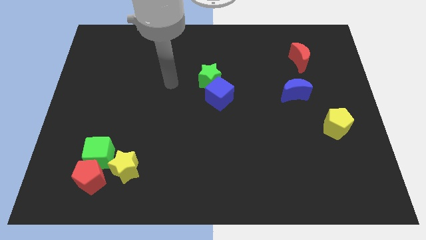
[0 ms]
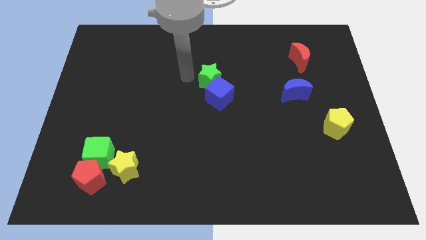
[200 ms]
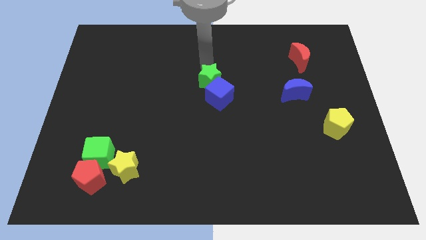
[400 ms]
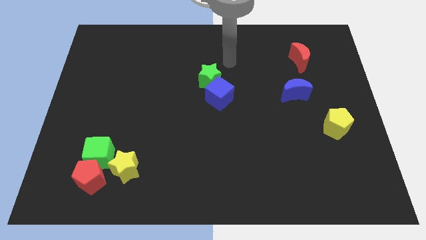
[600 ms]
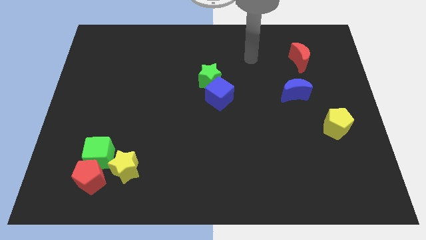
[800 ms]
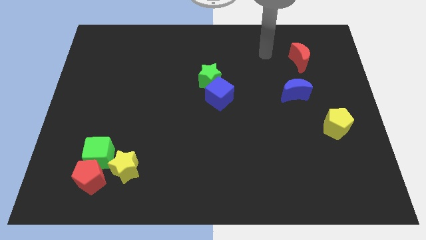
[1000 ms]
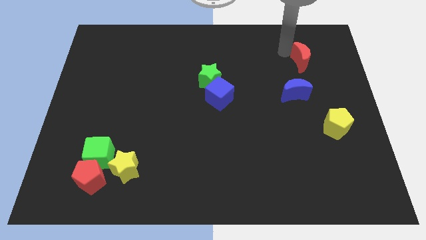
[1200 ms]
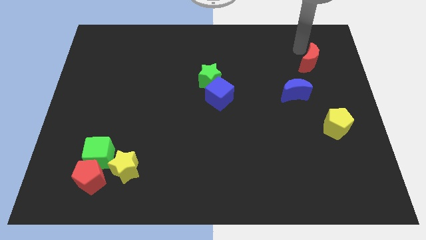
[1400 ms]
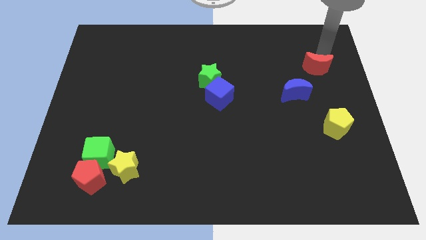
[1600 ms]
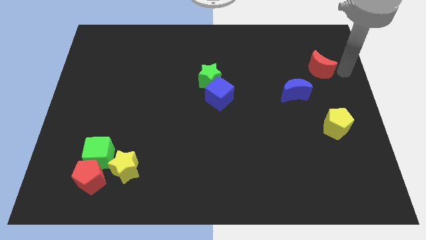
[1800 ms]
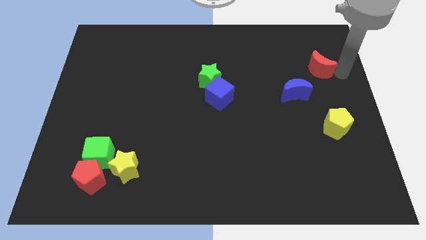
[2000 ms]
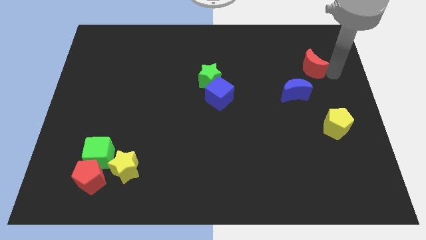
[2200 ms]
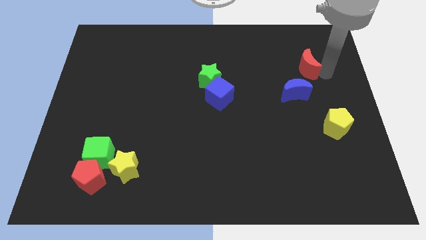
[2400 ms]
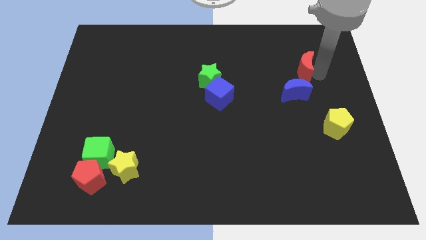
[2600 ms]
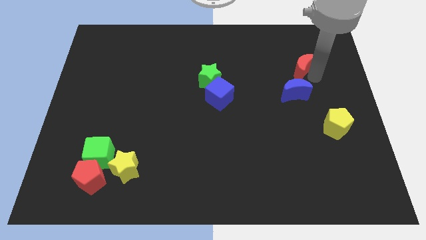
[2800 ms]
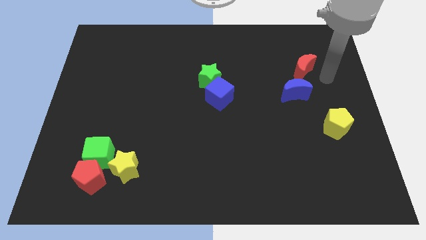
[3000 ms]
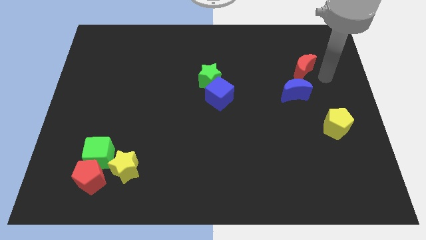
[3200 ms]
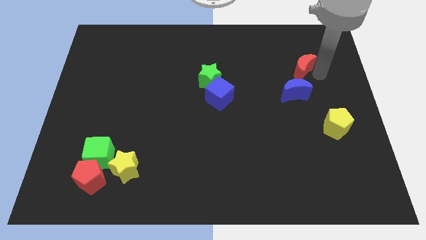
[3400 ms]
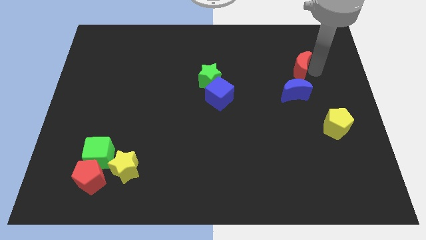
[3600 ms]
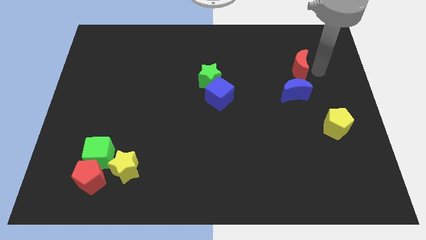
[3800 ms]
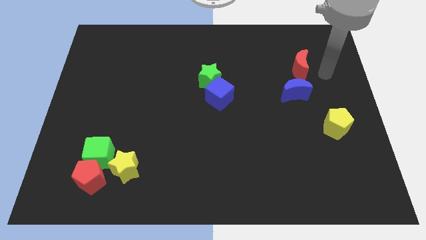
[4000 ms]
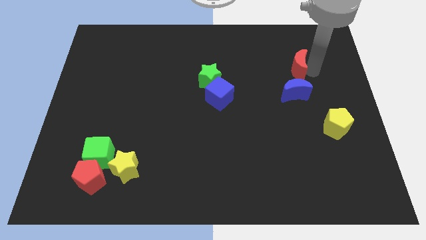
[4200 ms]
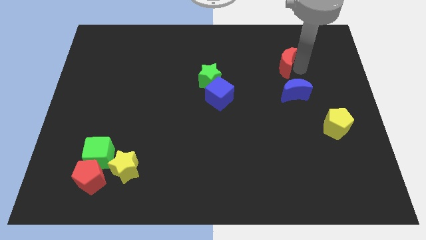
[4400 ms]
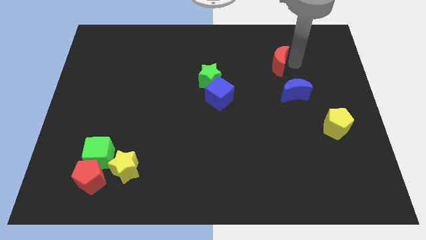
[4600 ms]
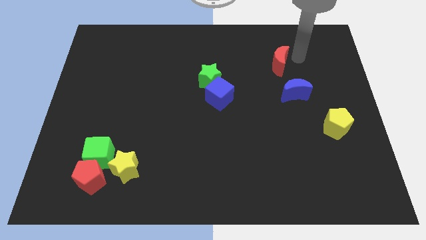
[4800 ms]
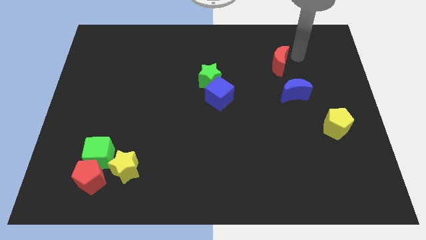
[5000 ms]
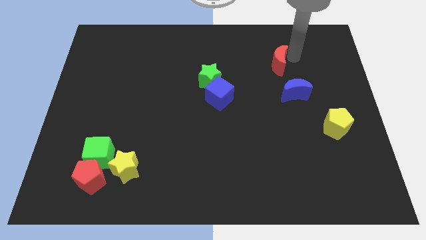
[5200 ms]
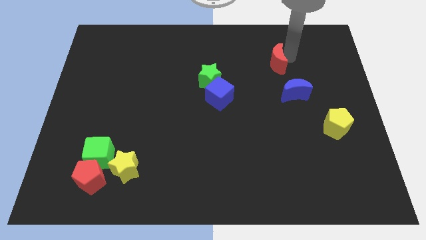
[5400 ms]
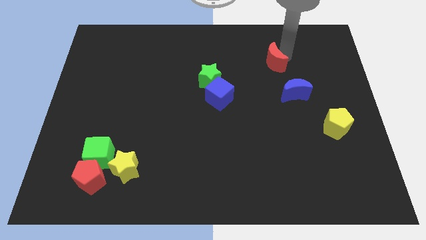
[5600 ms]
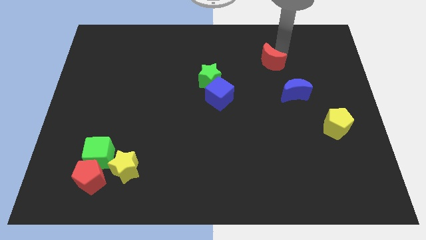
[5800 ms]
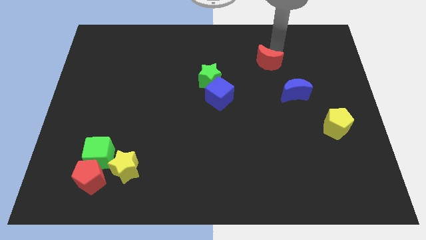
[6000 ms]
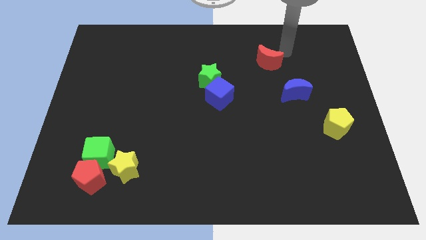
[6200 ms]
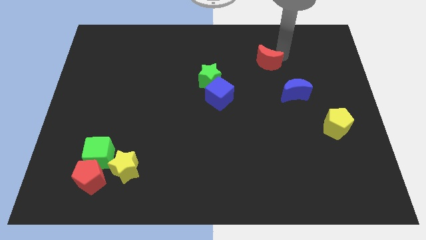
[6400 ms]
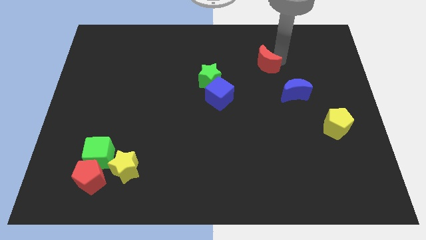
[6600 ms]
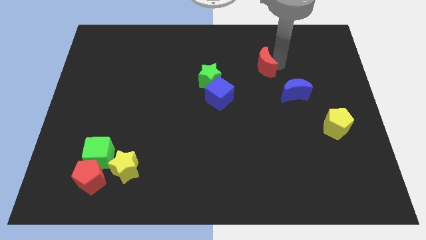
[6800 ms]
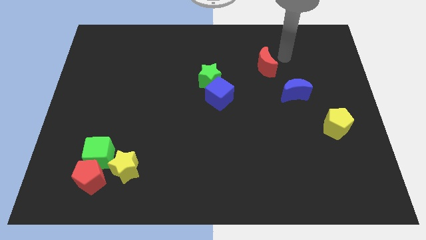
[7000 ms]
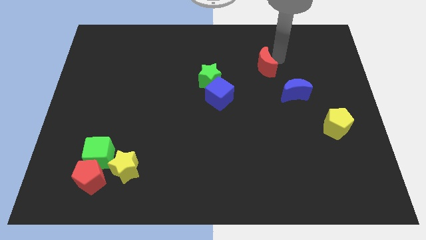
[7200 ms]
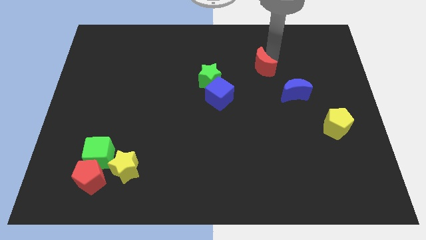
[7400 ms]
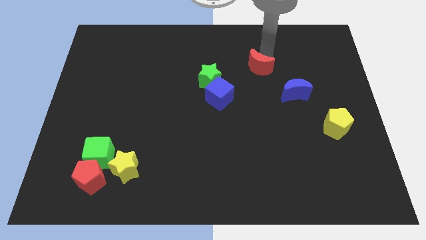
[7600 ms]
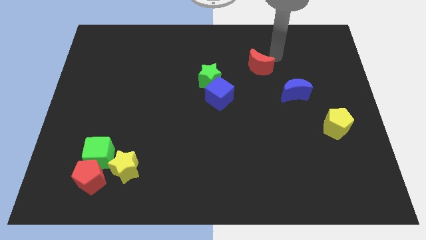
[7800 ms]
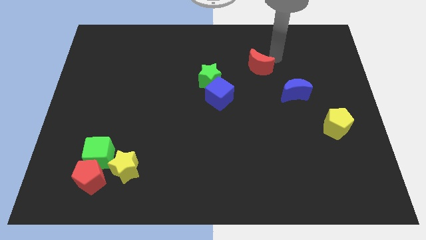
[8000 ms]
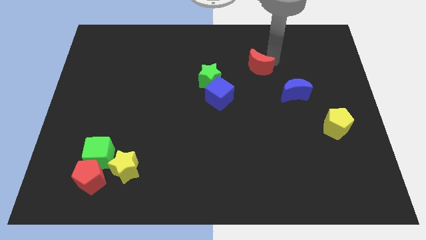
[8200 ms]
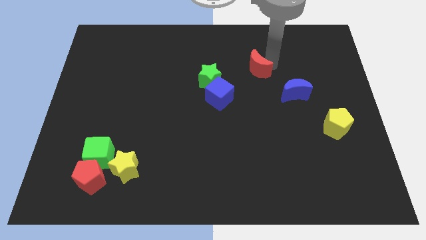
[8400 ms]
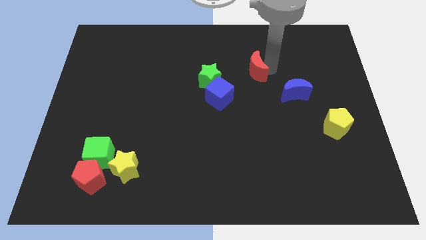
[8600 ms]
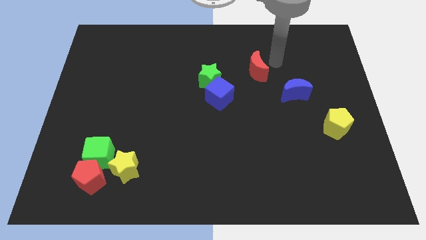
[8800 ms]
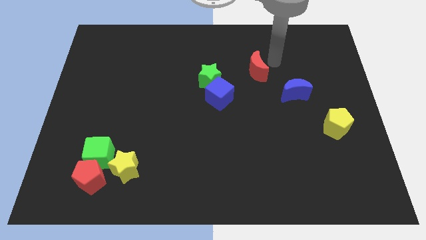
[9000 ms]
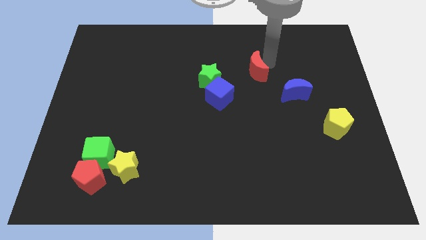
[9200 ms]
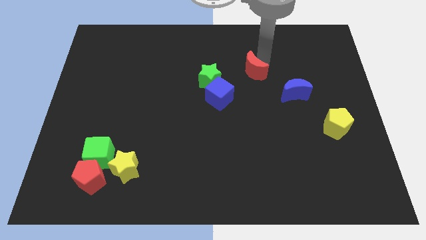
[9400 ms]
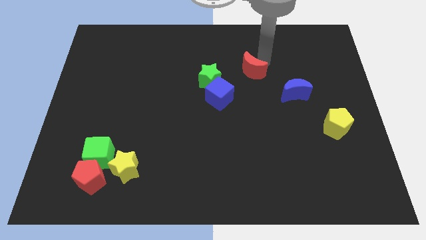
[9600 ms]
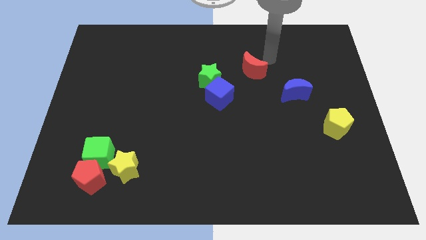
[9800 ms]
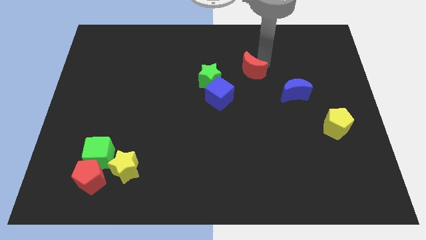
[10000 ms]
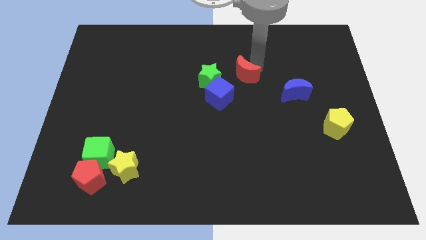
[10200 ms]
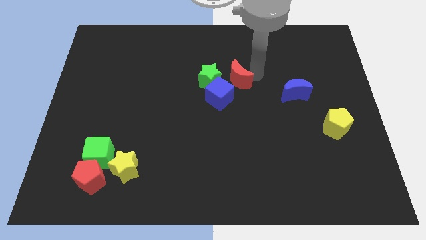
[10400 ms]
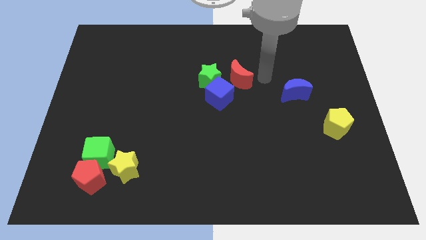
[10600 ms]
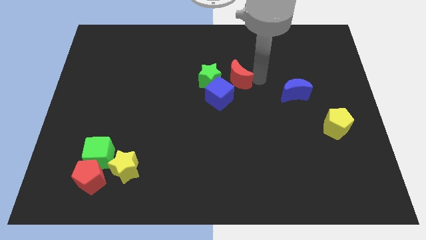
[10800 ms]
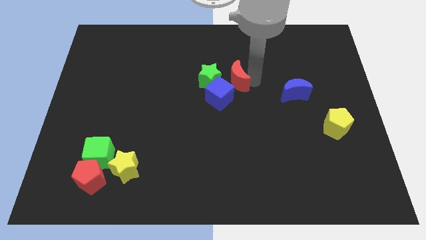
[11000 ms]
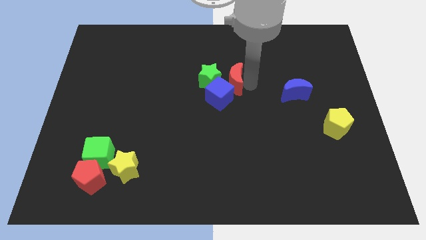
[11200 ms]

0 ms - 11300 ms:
move the red moon close to the green star

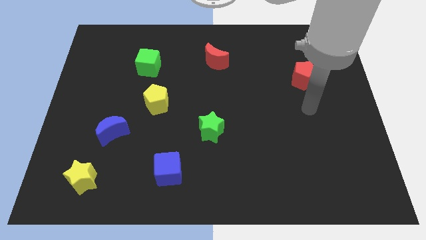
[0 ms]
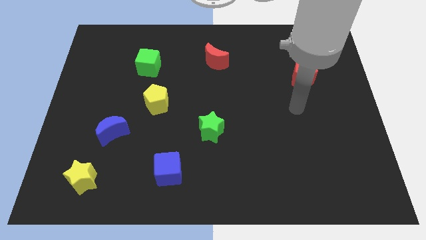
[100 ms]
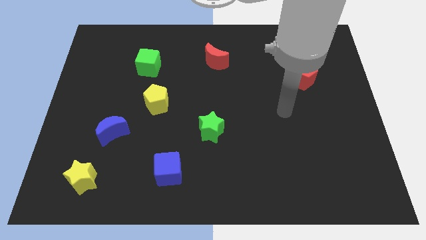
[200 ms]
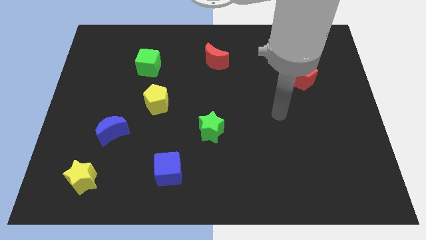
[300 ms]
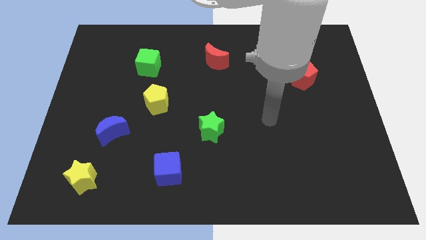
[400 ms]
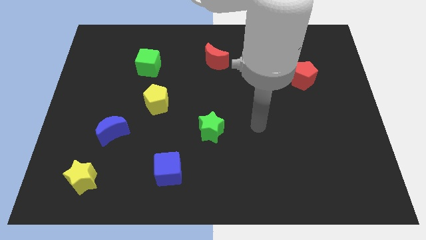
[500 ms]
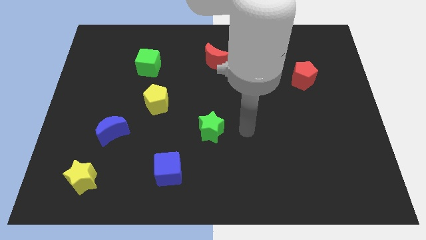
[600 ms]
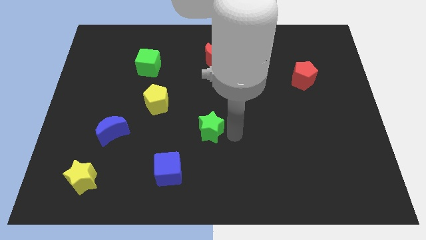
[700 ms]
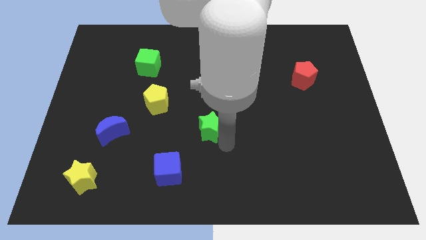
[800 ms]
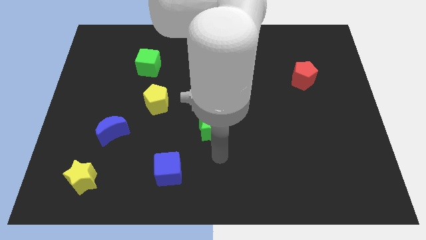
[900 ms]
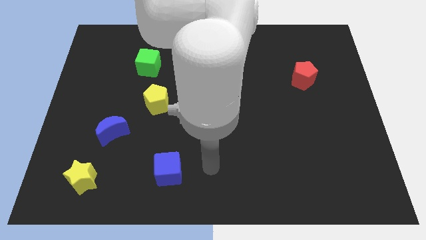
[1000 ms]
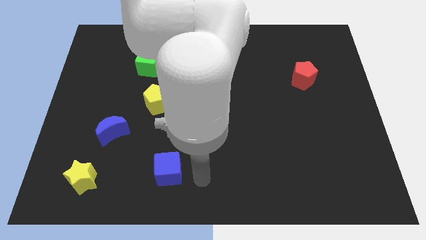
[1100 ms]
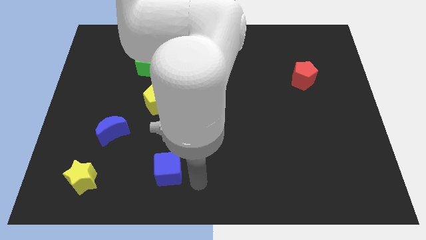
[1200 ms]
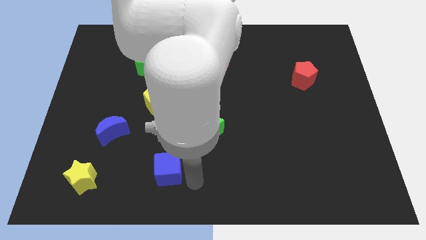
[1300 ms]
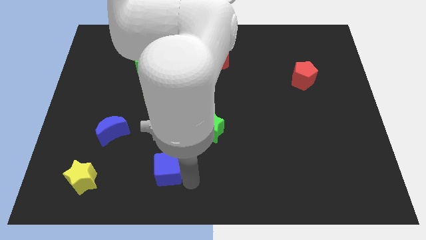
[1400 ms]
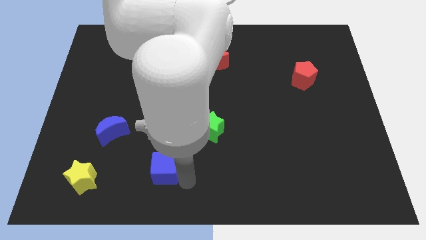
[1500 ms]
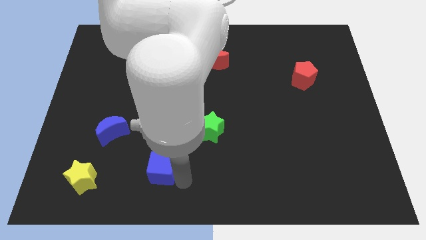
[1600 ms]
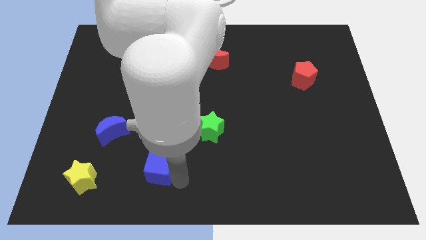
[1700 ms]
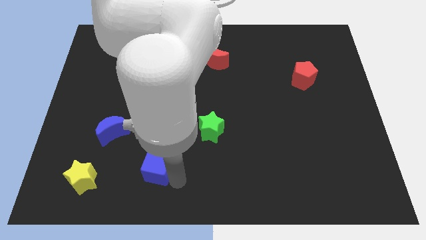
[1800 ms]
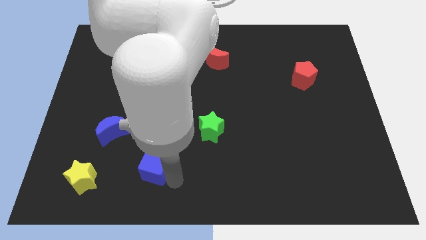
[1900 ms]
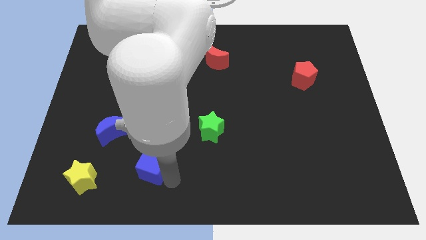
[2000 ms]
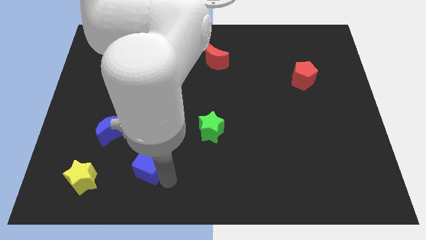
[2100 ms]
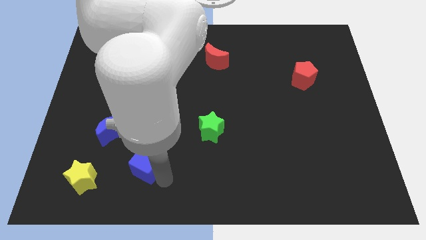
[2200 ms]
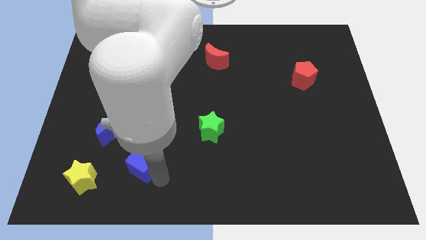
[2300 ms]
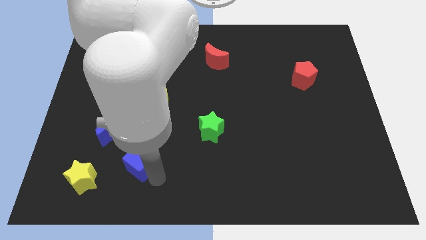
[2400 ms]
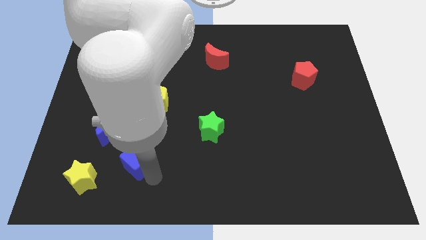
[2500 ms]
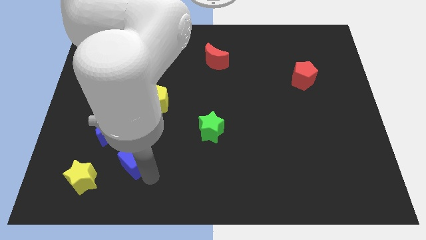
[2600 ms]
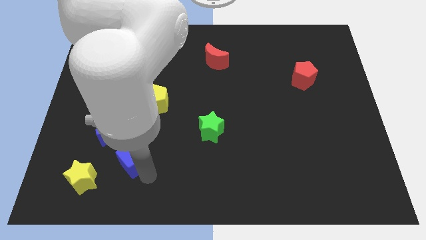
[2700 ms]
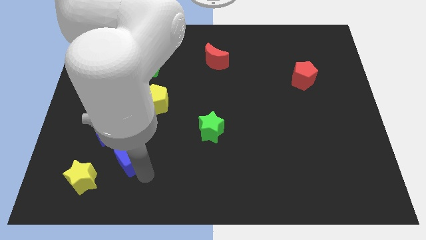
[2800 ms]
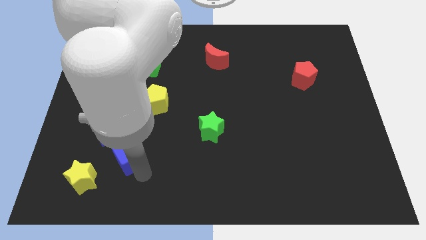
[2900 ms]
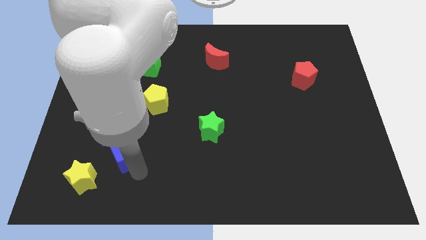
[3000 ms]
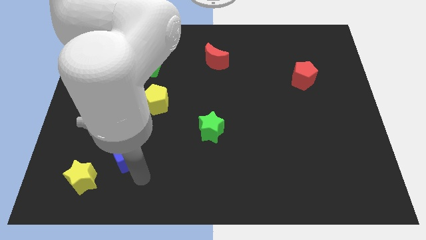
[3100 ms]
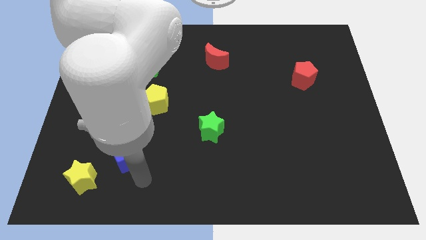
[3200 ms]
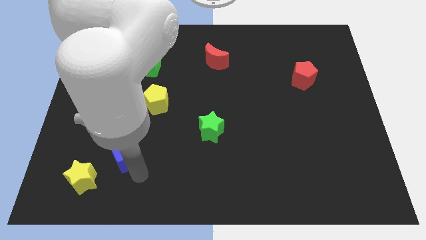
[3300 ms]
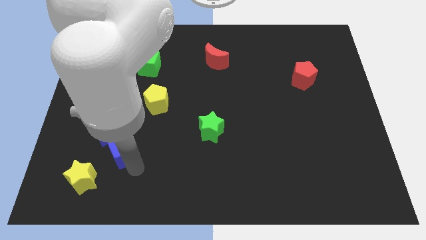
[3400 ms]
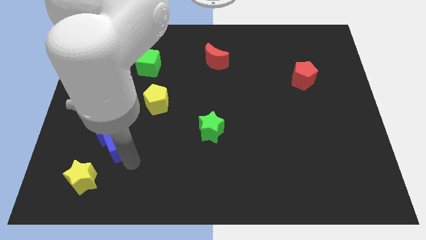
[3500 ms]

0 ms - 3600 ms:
slide the blue cube next to the blue moon
